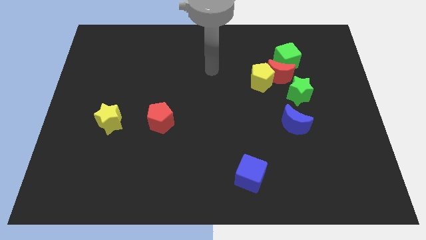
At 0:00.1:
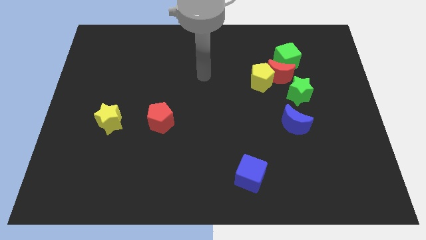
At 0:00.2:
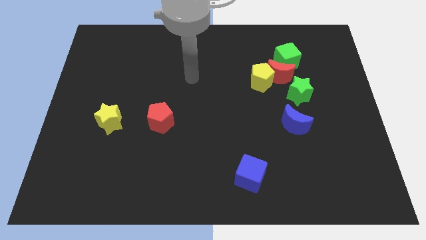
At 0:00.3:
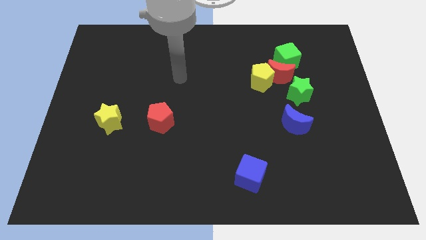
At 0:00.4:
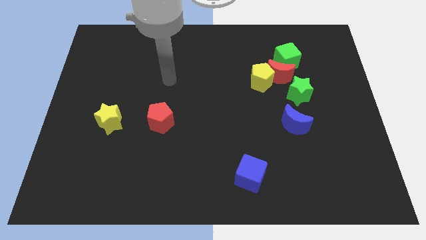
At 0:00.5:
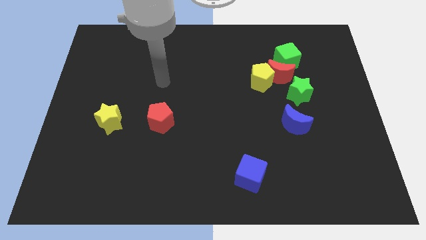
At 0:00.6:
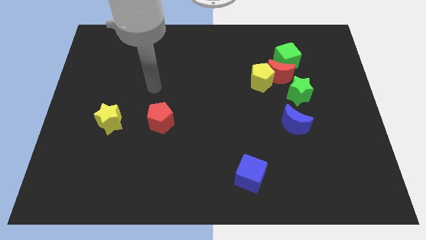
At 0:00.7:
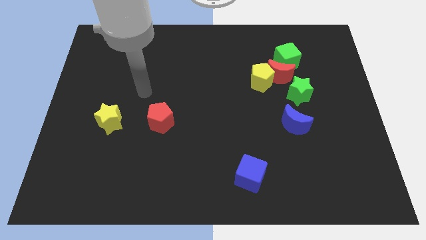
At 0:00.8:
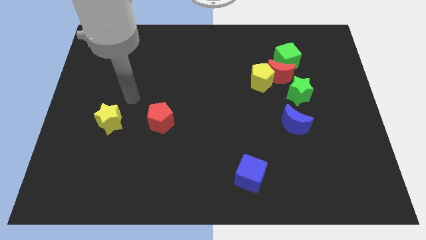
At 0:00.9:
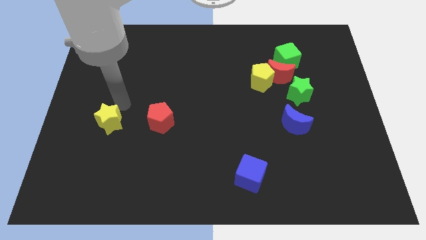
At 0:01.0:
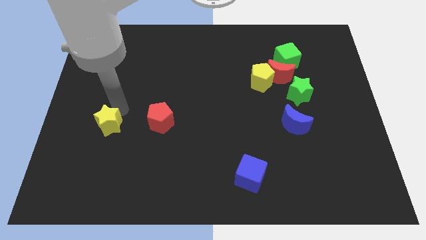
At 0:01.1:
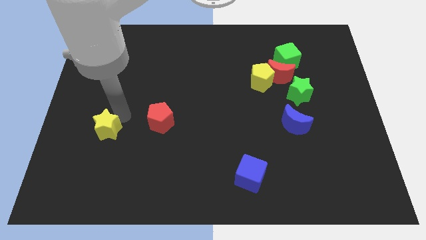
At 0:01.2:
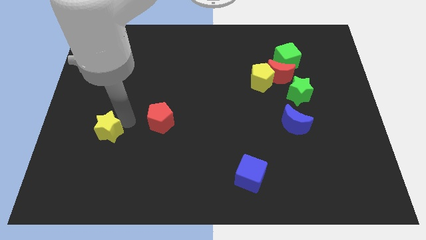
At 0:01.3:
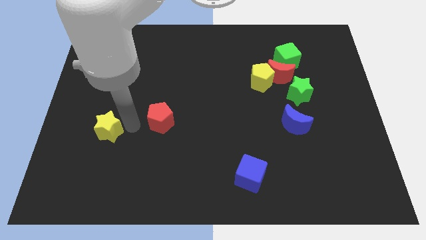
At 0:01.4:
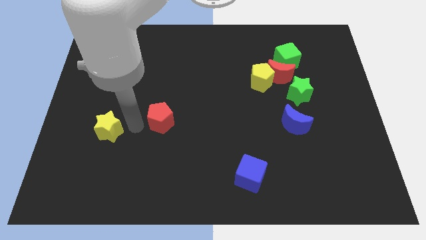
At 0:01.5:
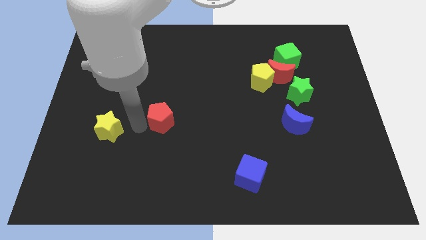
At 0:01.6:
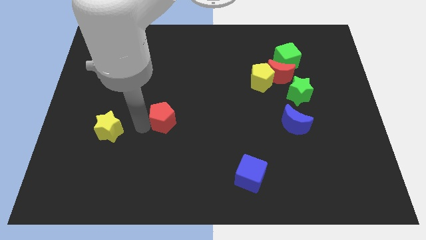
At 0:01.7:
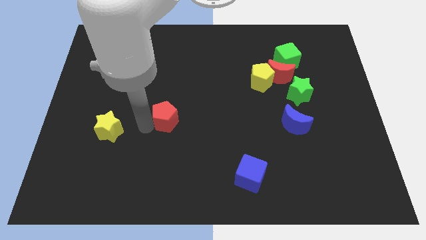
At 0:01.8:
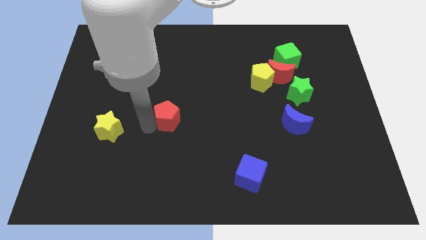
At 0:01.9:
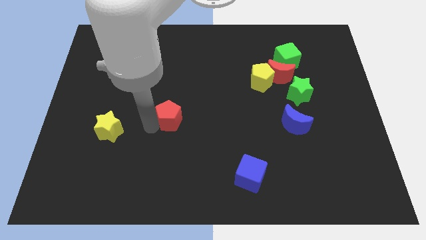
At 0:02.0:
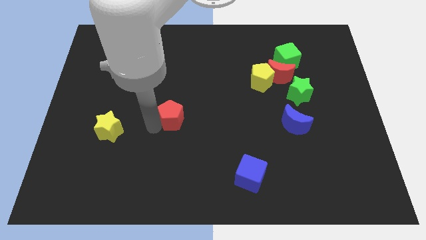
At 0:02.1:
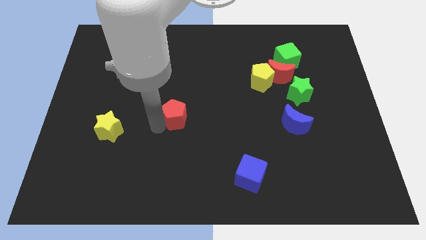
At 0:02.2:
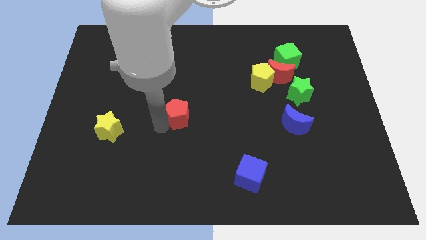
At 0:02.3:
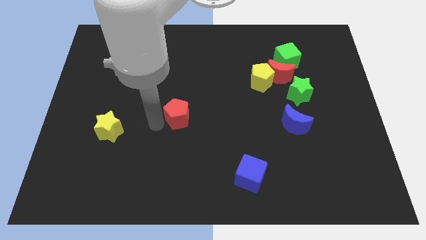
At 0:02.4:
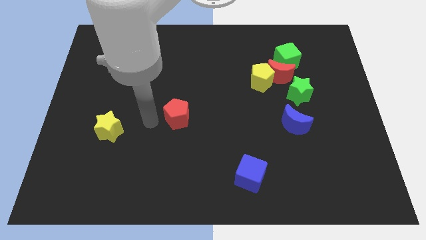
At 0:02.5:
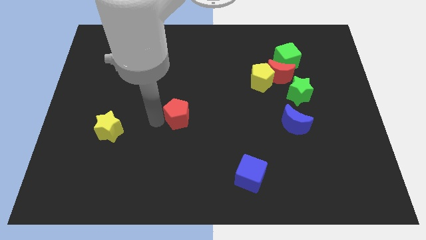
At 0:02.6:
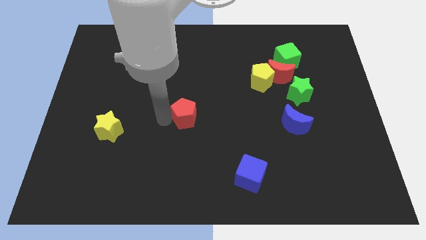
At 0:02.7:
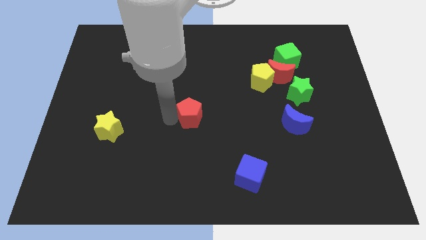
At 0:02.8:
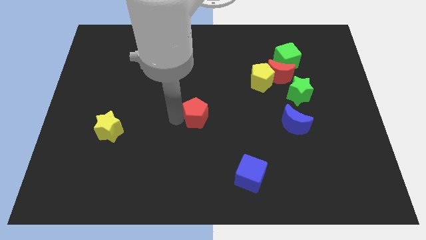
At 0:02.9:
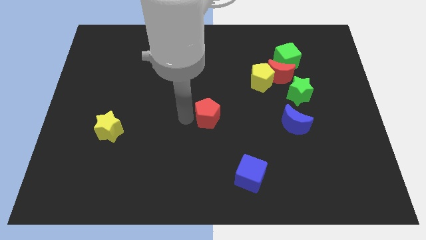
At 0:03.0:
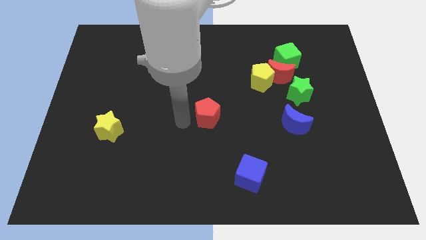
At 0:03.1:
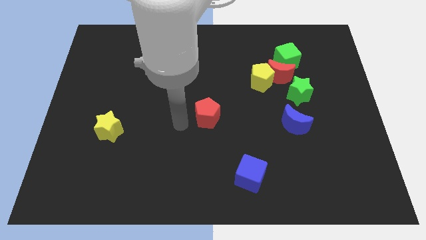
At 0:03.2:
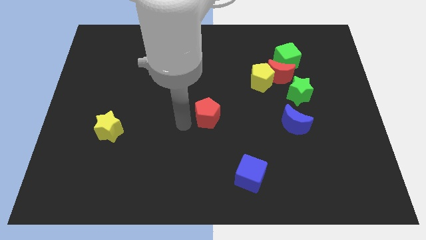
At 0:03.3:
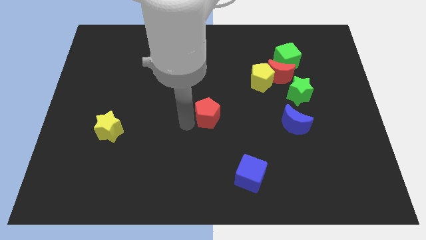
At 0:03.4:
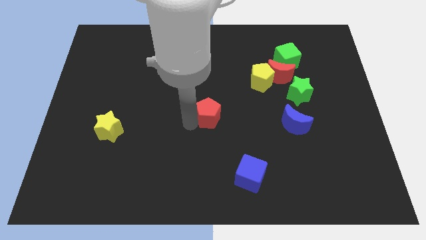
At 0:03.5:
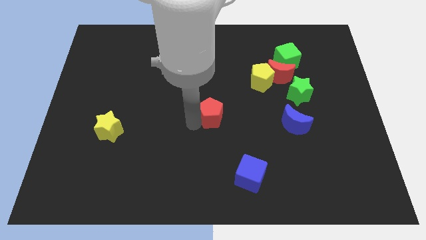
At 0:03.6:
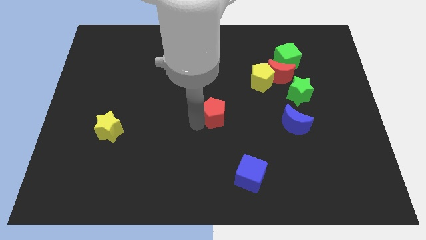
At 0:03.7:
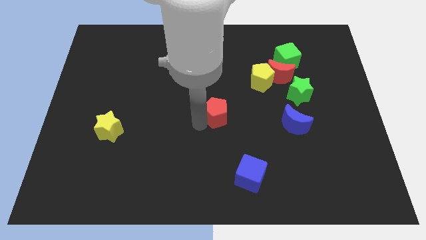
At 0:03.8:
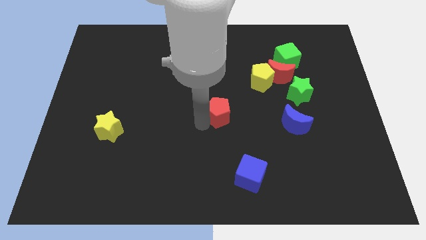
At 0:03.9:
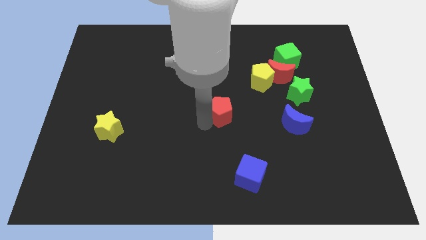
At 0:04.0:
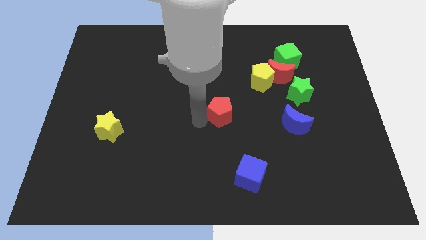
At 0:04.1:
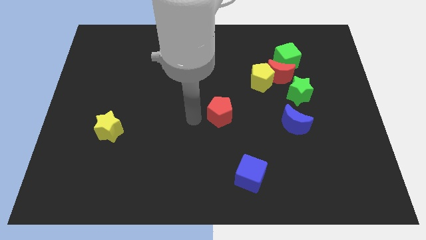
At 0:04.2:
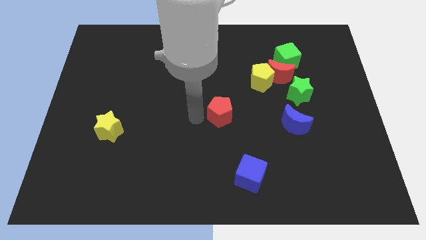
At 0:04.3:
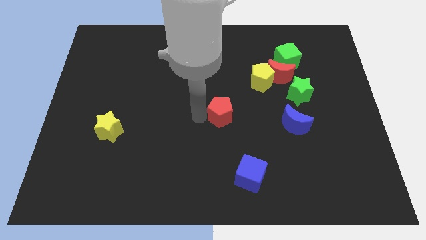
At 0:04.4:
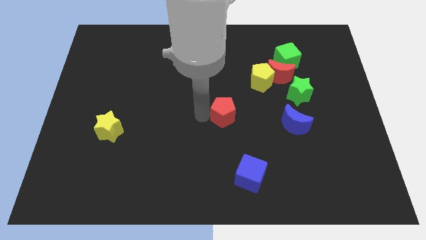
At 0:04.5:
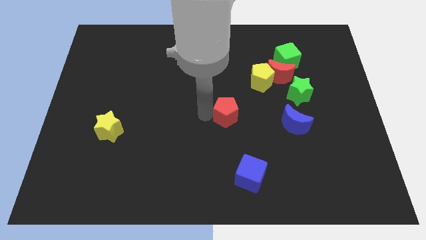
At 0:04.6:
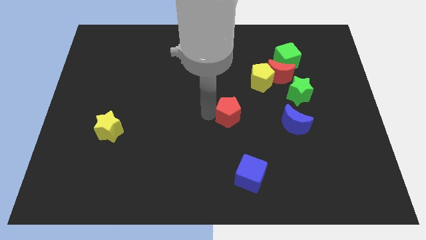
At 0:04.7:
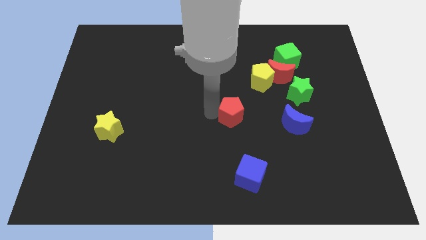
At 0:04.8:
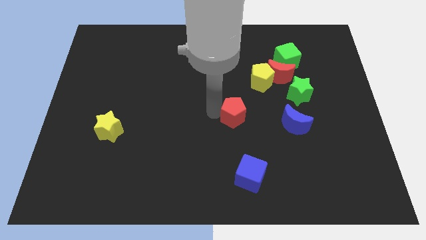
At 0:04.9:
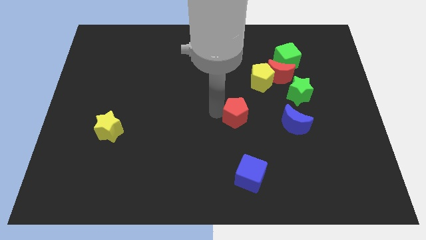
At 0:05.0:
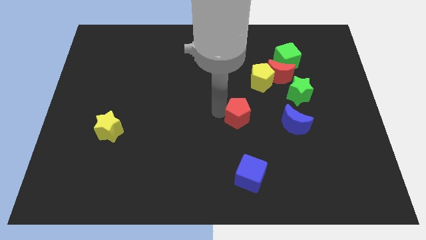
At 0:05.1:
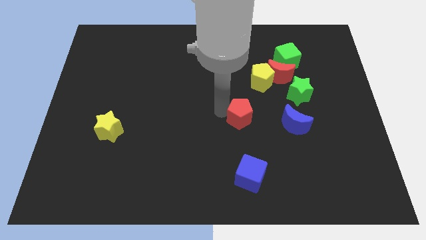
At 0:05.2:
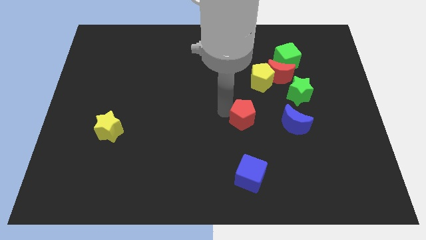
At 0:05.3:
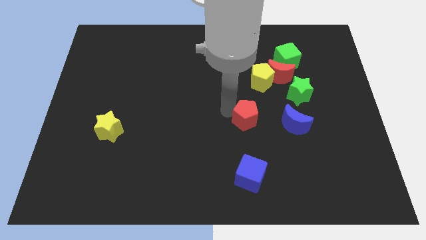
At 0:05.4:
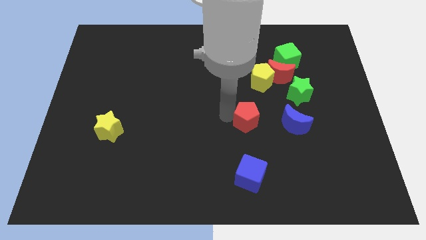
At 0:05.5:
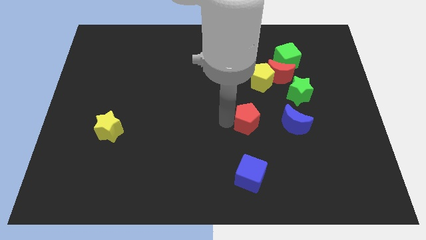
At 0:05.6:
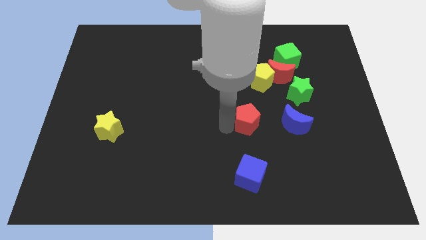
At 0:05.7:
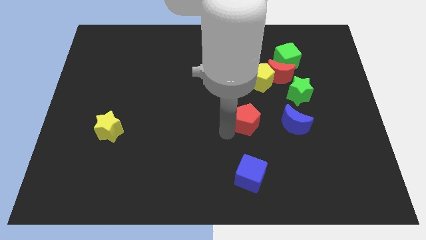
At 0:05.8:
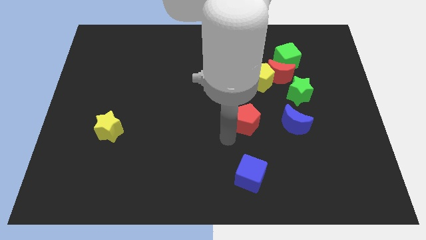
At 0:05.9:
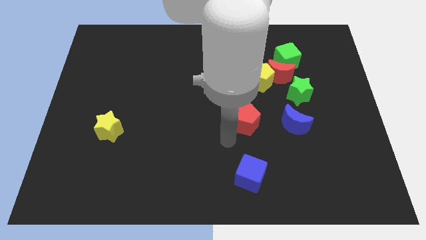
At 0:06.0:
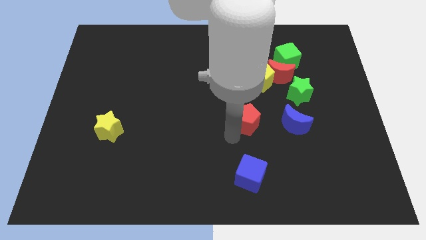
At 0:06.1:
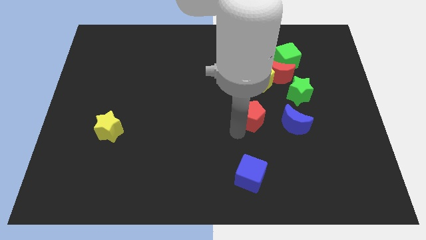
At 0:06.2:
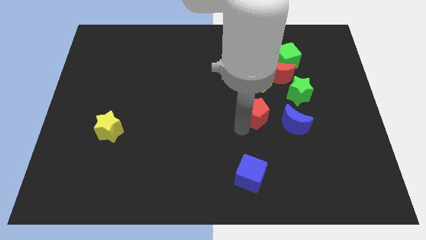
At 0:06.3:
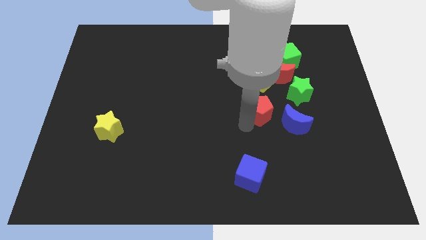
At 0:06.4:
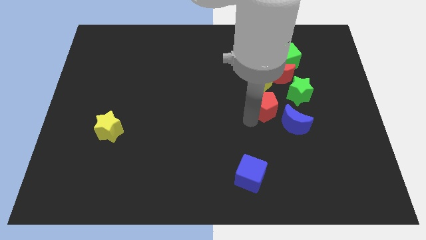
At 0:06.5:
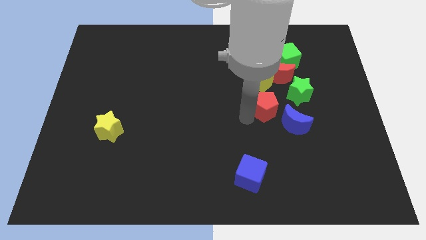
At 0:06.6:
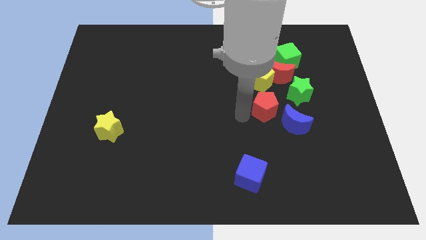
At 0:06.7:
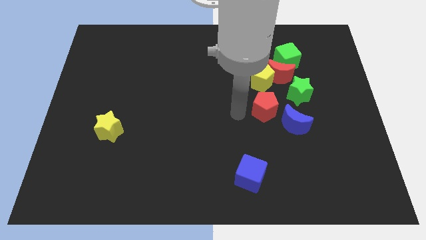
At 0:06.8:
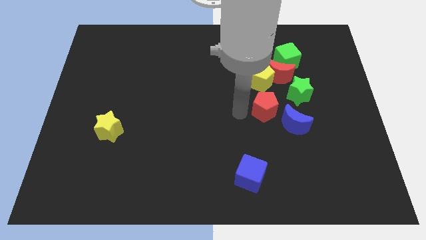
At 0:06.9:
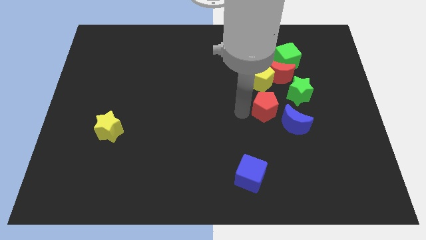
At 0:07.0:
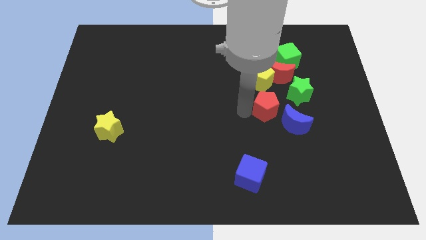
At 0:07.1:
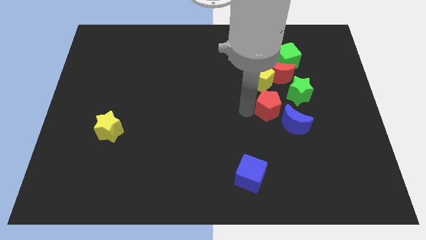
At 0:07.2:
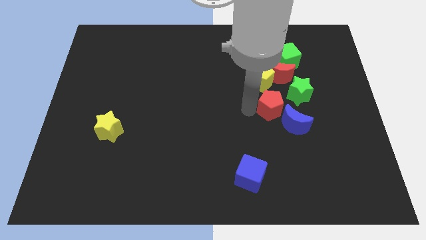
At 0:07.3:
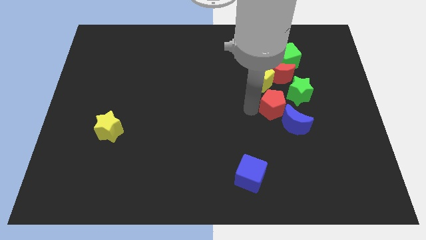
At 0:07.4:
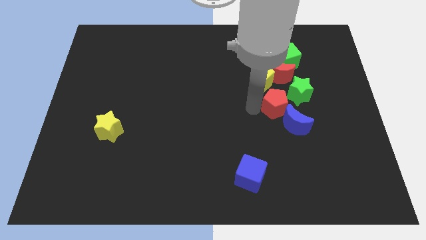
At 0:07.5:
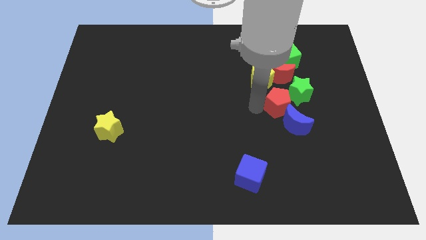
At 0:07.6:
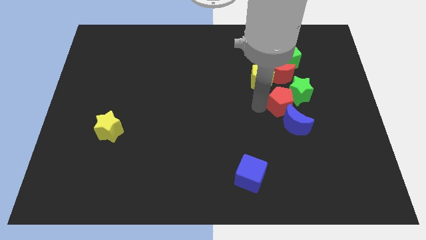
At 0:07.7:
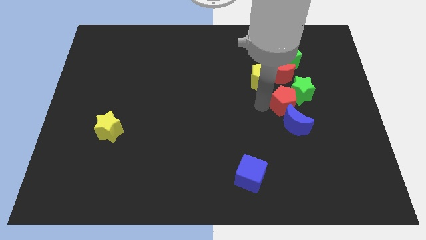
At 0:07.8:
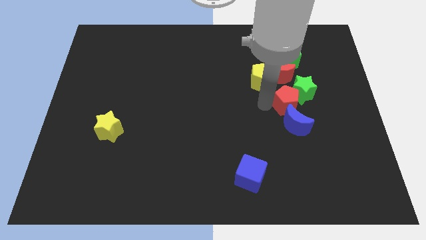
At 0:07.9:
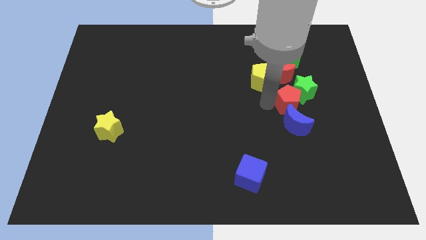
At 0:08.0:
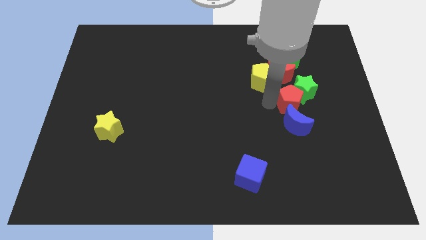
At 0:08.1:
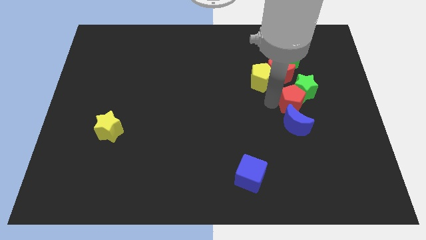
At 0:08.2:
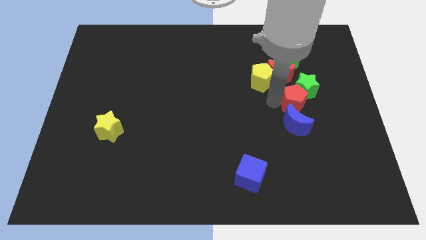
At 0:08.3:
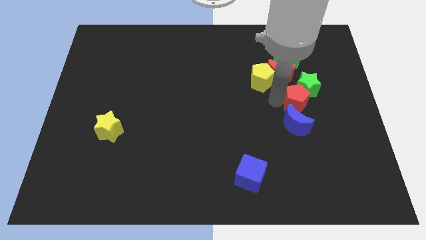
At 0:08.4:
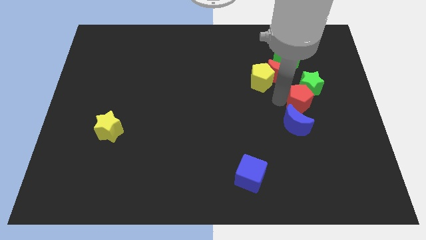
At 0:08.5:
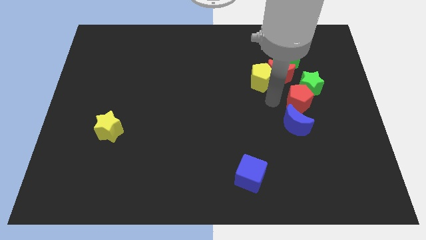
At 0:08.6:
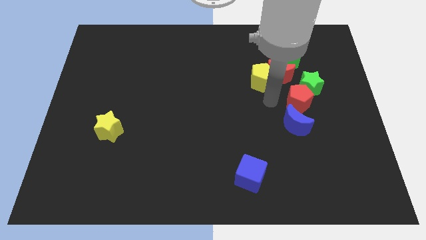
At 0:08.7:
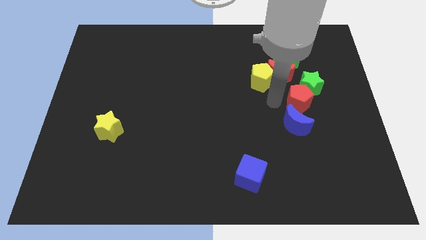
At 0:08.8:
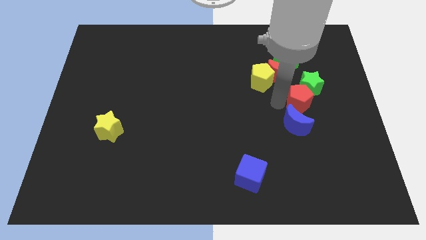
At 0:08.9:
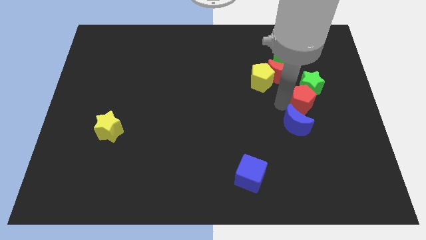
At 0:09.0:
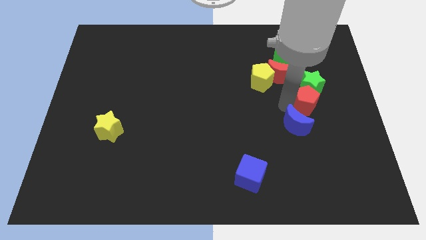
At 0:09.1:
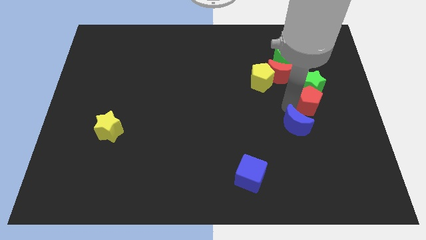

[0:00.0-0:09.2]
slide the red pentagon to the bottom right of the green star
